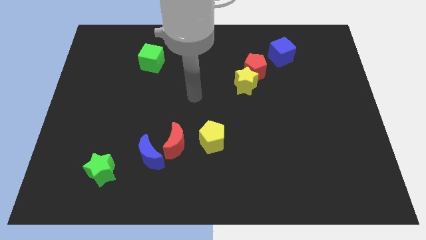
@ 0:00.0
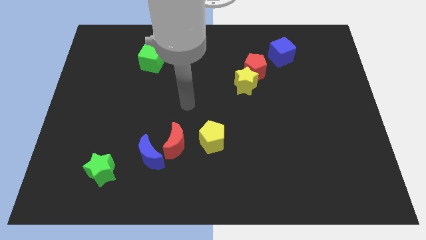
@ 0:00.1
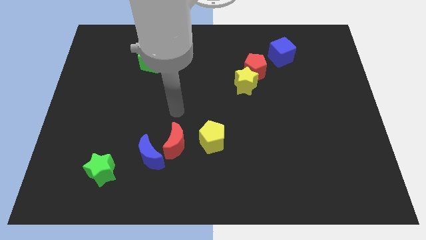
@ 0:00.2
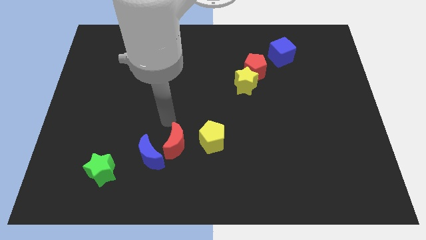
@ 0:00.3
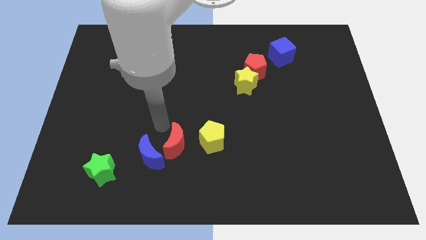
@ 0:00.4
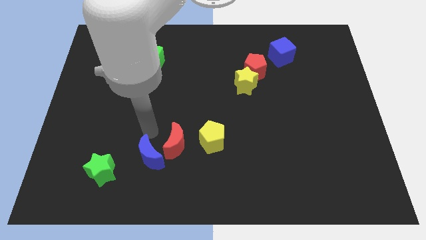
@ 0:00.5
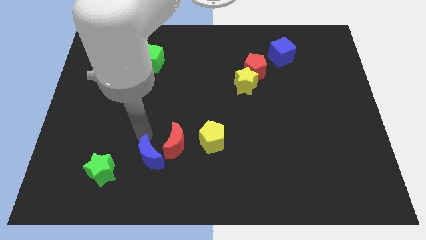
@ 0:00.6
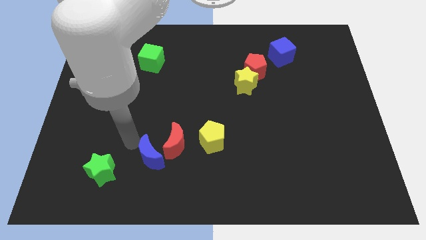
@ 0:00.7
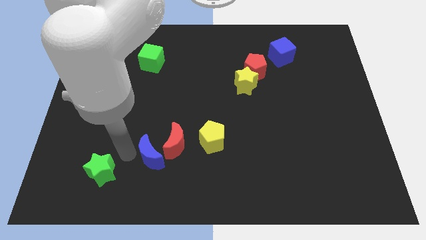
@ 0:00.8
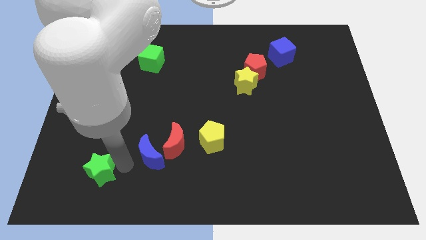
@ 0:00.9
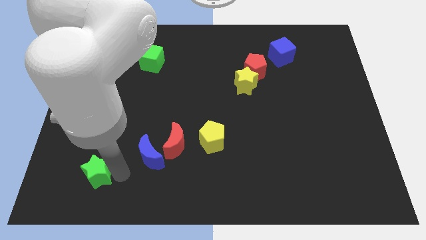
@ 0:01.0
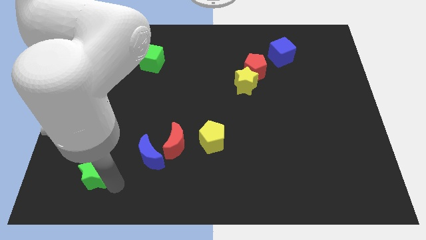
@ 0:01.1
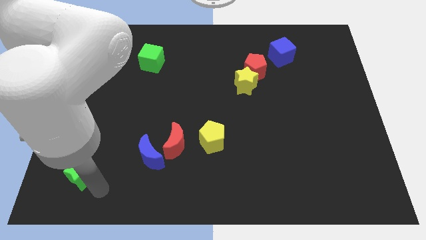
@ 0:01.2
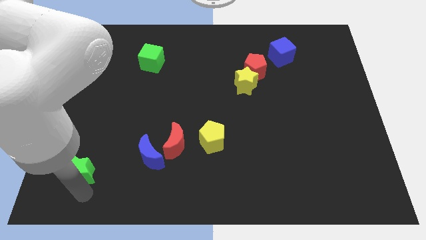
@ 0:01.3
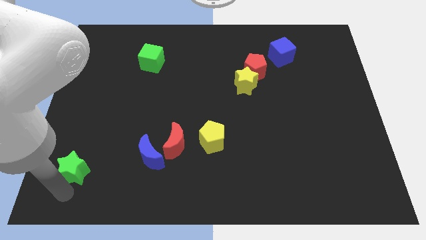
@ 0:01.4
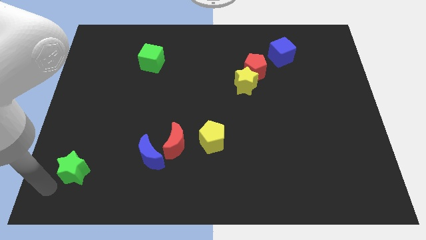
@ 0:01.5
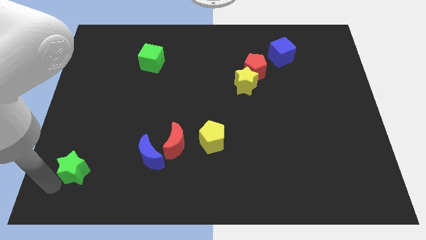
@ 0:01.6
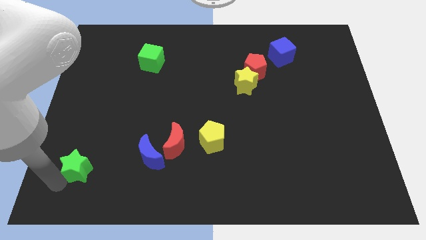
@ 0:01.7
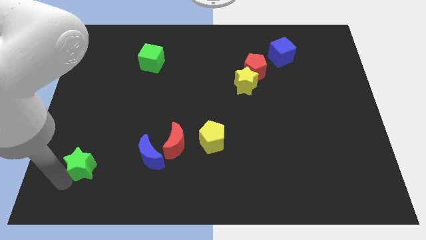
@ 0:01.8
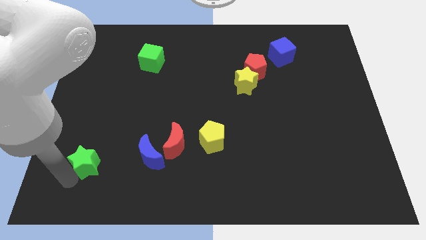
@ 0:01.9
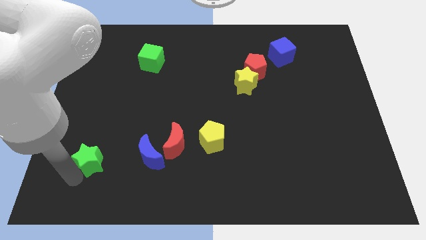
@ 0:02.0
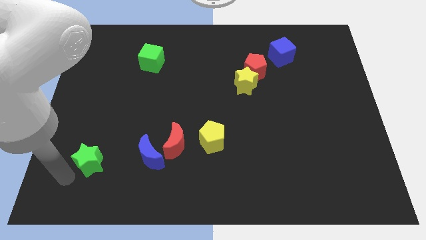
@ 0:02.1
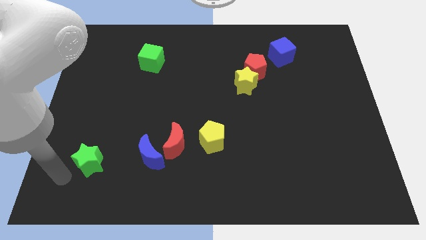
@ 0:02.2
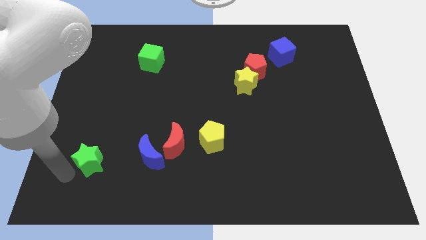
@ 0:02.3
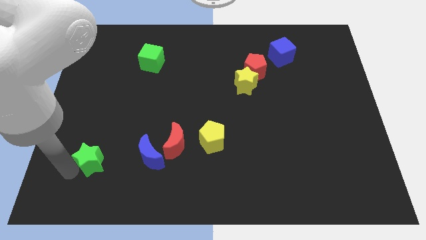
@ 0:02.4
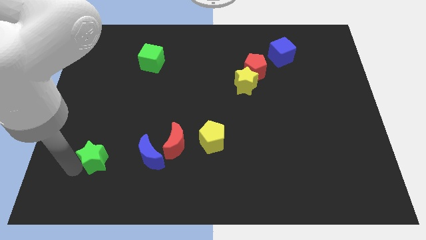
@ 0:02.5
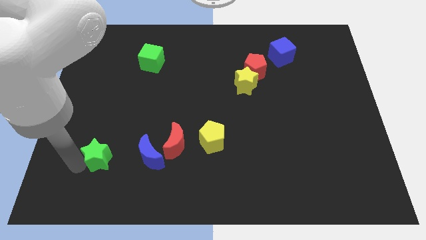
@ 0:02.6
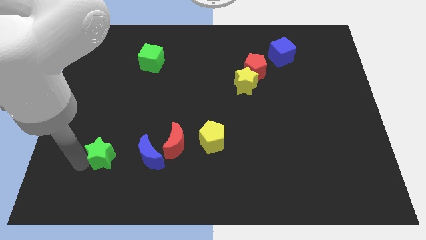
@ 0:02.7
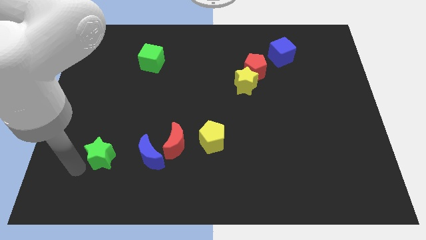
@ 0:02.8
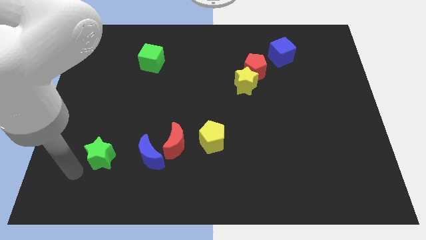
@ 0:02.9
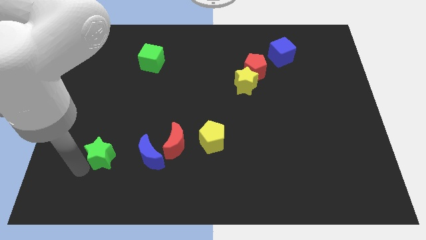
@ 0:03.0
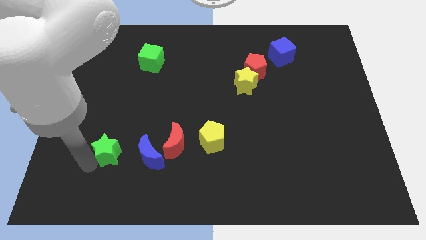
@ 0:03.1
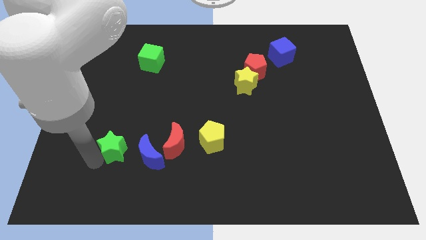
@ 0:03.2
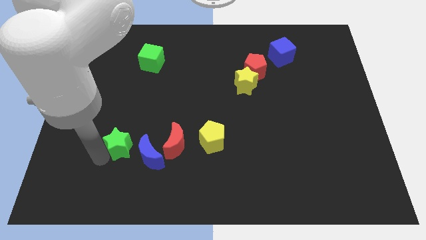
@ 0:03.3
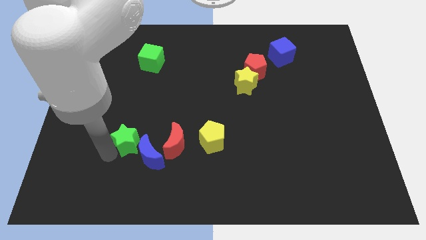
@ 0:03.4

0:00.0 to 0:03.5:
push the green star diagonally up and right a bit

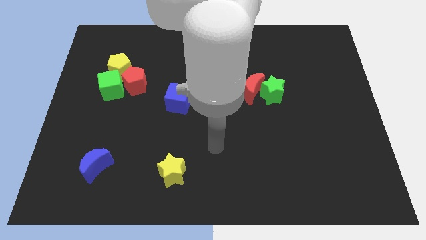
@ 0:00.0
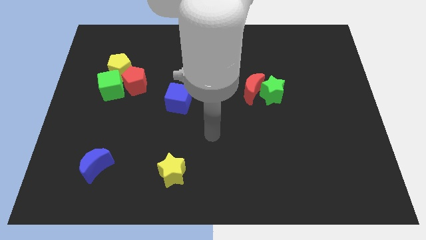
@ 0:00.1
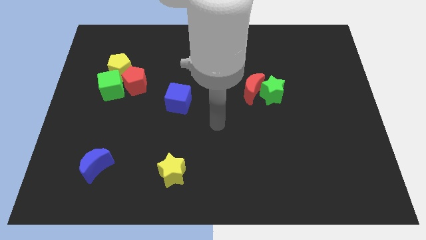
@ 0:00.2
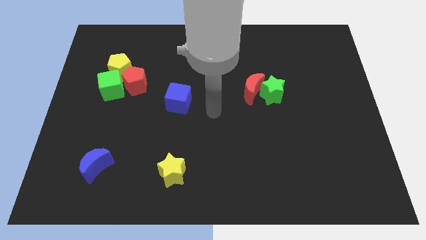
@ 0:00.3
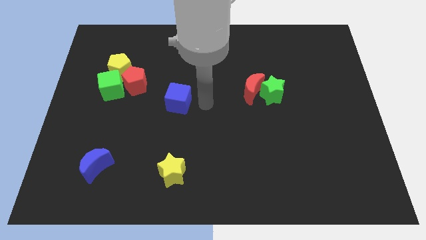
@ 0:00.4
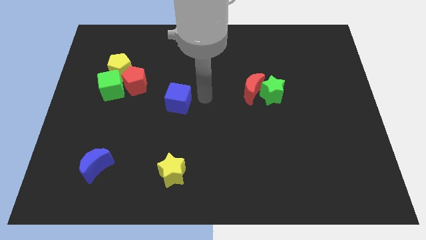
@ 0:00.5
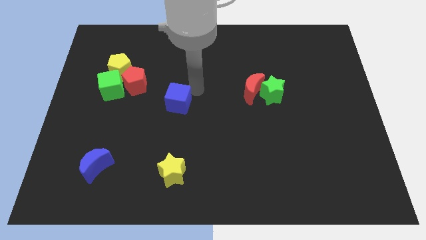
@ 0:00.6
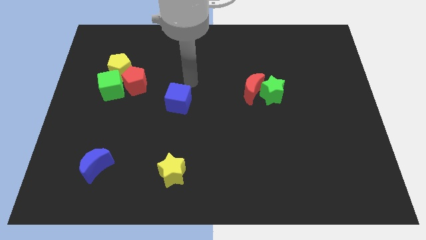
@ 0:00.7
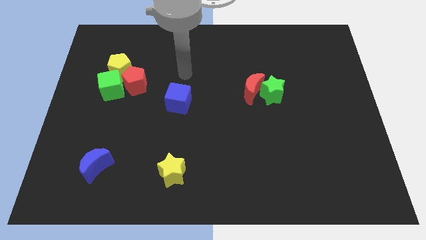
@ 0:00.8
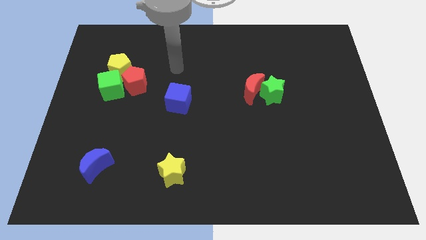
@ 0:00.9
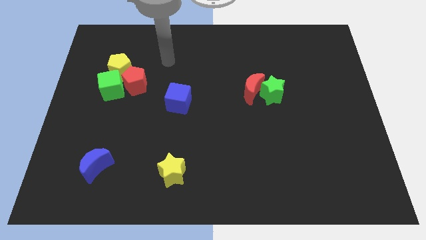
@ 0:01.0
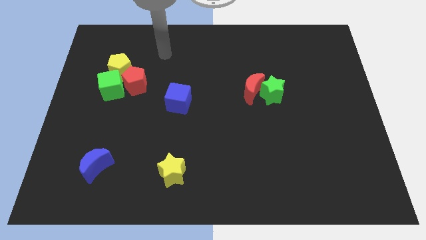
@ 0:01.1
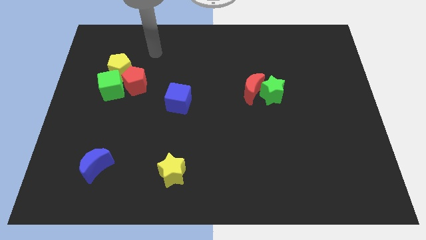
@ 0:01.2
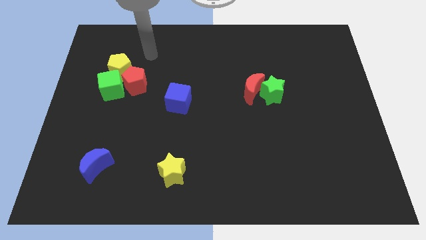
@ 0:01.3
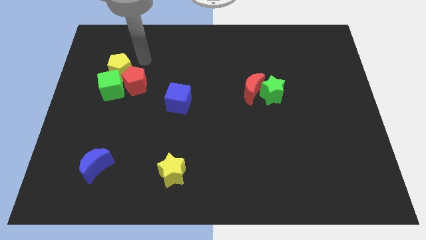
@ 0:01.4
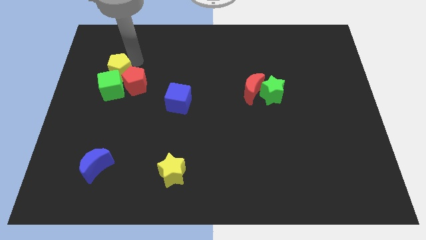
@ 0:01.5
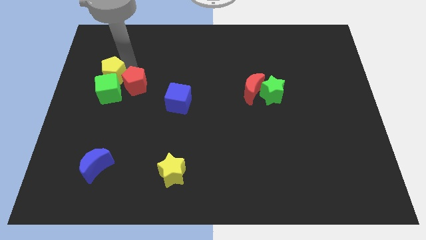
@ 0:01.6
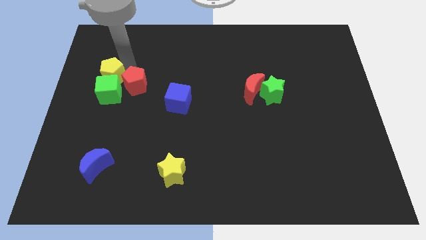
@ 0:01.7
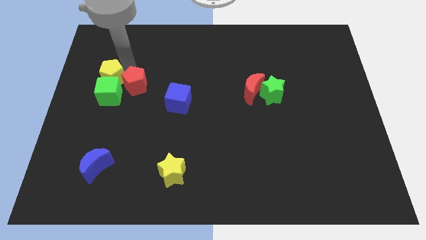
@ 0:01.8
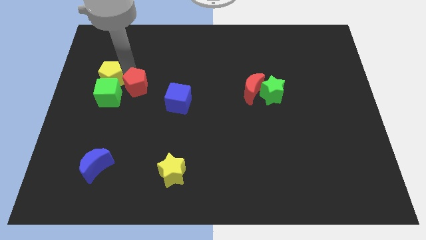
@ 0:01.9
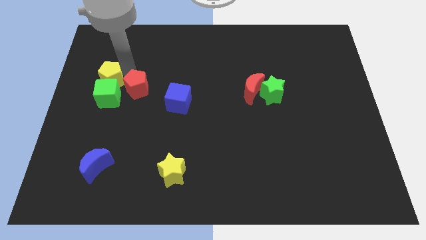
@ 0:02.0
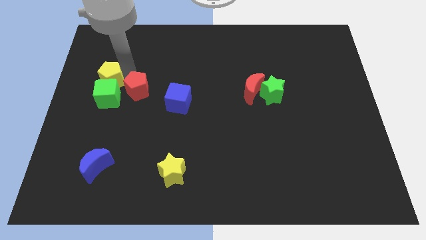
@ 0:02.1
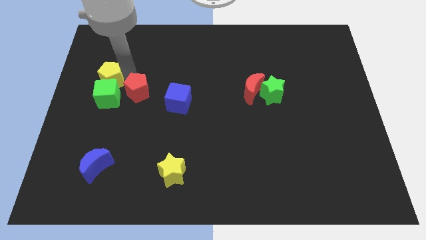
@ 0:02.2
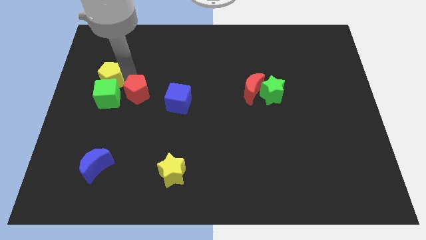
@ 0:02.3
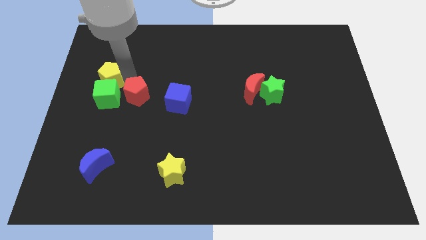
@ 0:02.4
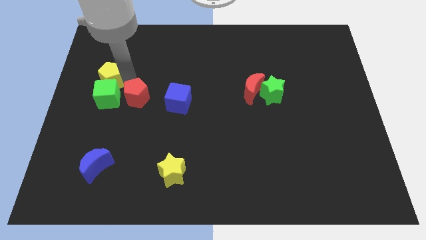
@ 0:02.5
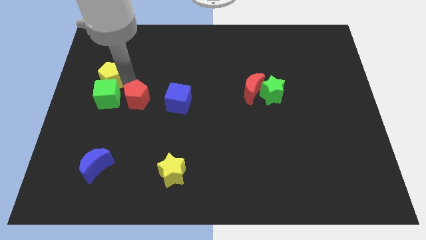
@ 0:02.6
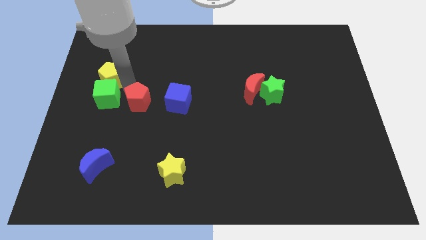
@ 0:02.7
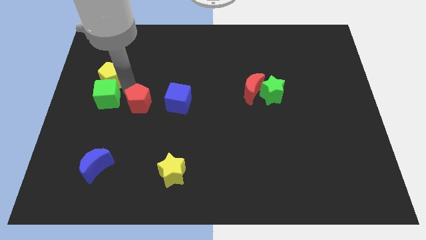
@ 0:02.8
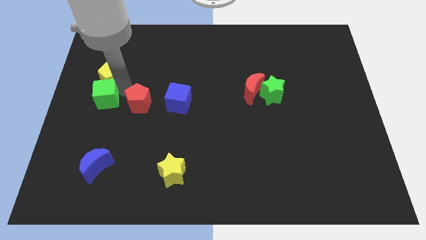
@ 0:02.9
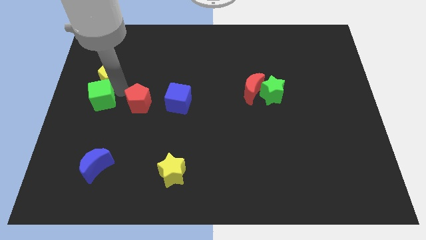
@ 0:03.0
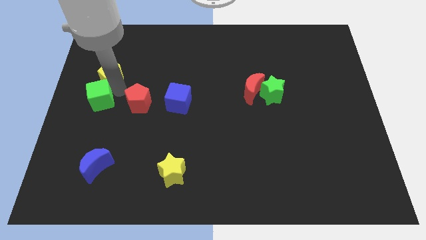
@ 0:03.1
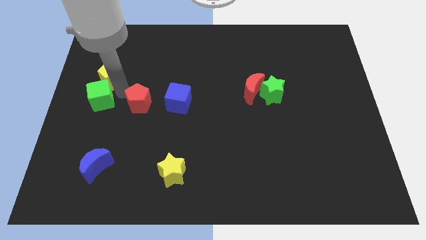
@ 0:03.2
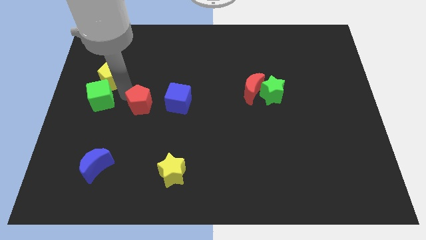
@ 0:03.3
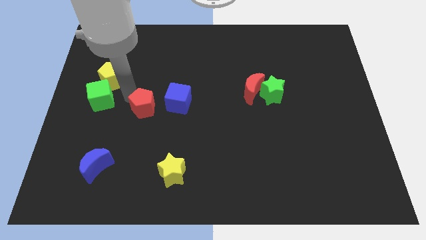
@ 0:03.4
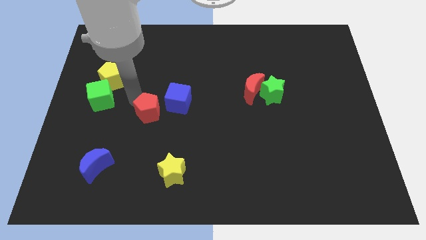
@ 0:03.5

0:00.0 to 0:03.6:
slightly move the red pentagon down and to the right

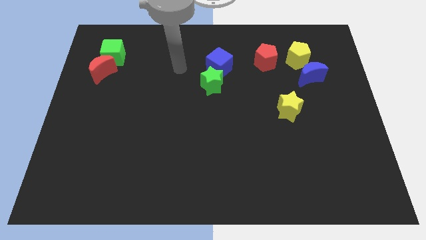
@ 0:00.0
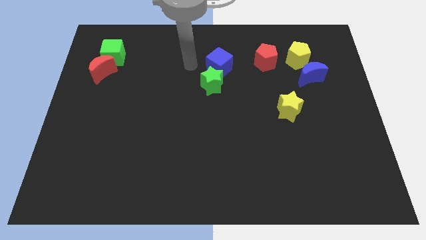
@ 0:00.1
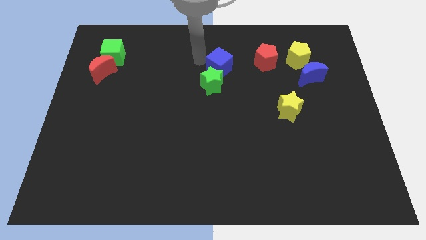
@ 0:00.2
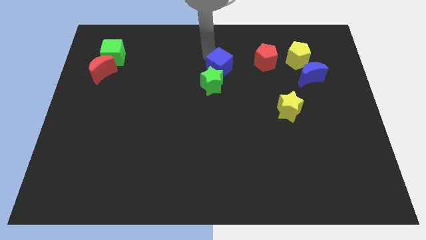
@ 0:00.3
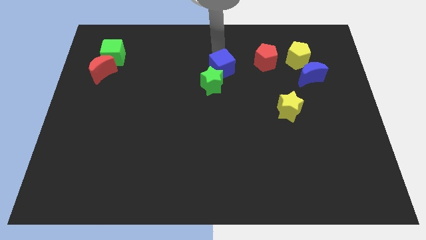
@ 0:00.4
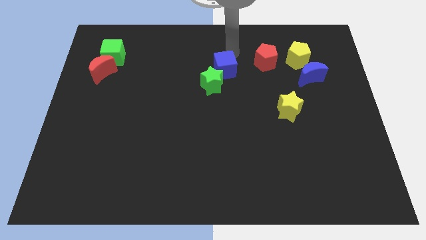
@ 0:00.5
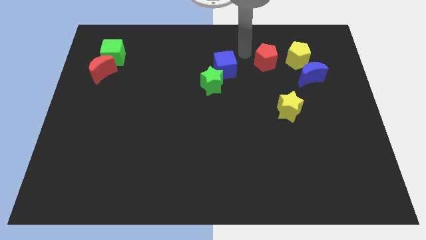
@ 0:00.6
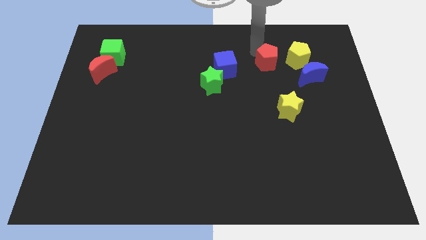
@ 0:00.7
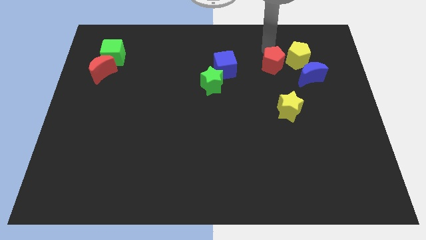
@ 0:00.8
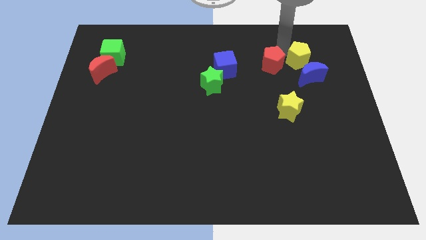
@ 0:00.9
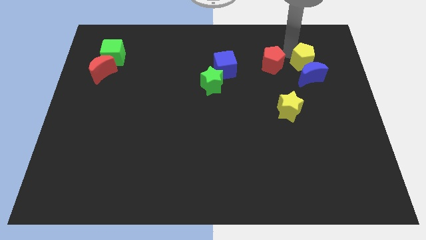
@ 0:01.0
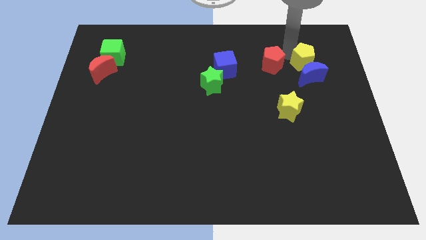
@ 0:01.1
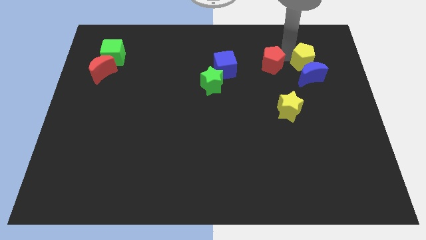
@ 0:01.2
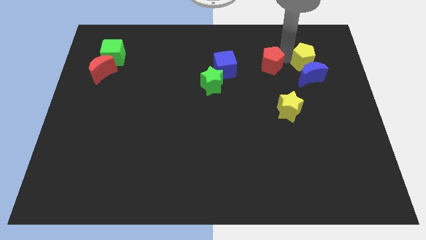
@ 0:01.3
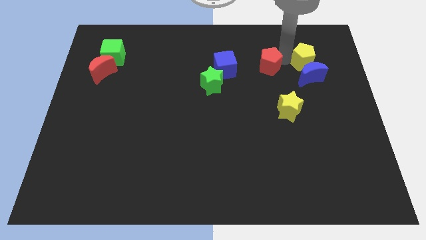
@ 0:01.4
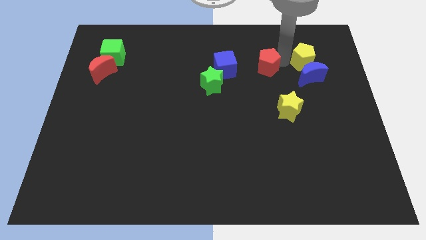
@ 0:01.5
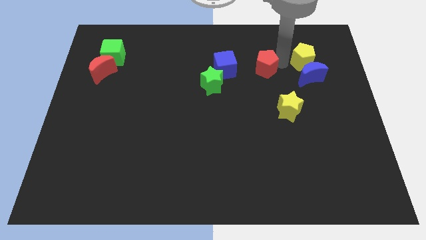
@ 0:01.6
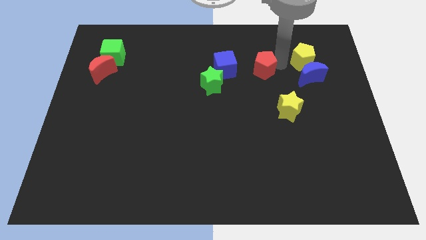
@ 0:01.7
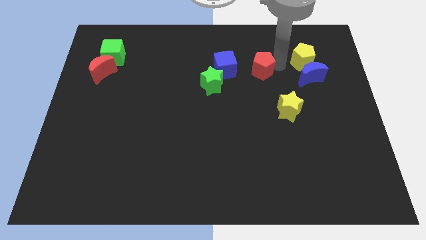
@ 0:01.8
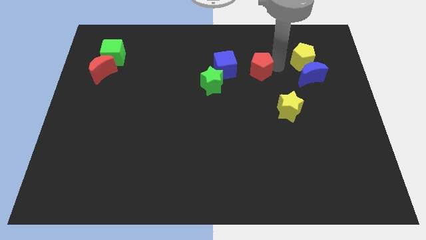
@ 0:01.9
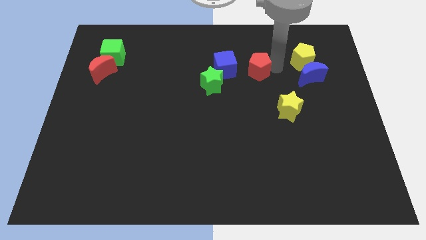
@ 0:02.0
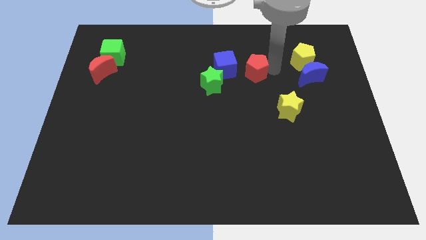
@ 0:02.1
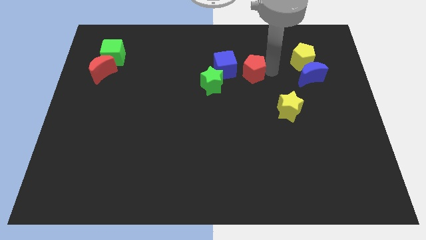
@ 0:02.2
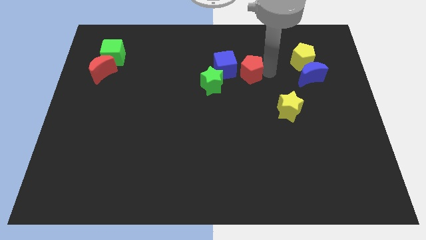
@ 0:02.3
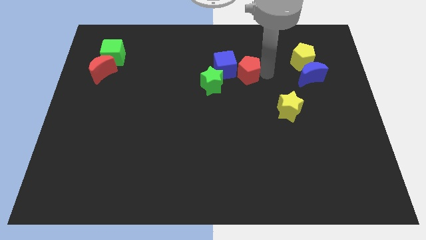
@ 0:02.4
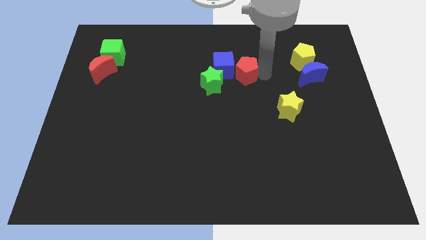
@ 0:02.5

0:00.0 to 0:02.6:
slide the red pentagon a little down and then to the left
